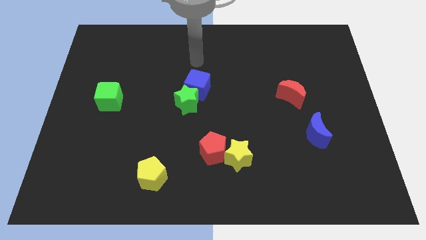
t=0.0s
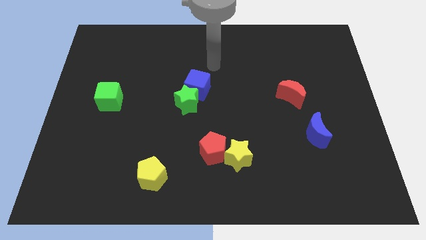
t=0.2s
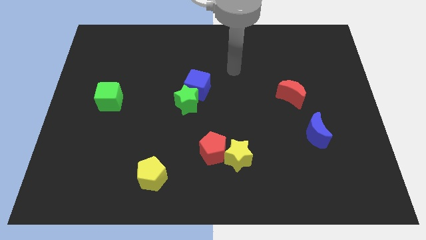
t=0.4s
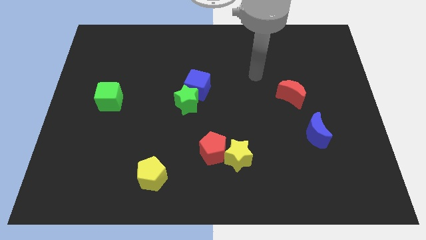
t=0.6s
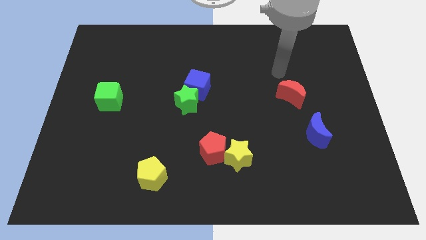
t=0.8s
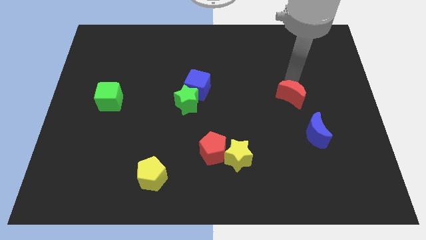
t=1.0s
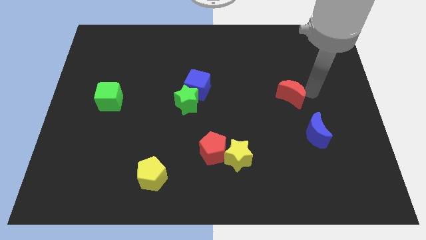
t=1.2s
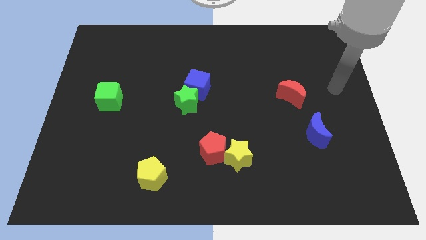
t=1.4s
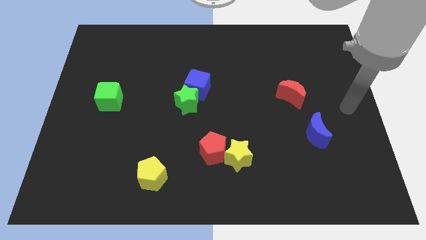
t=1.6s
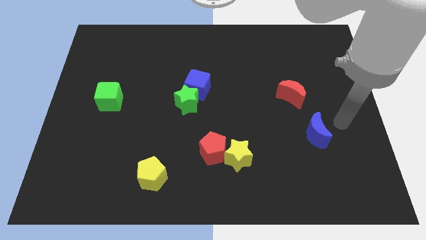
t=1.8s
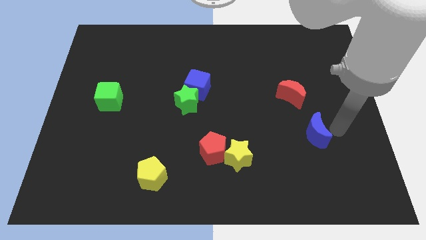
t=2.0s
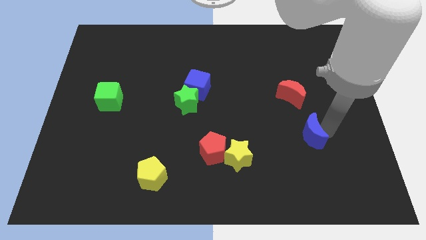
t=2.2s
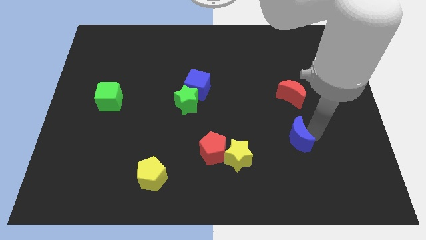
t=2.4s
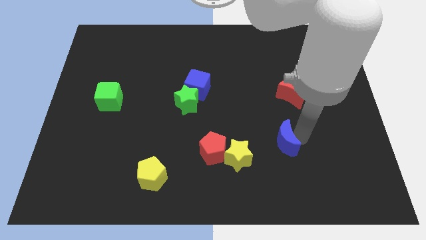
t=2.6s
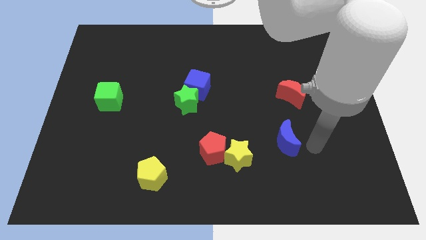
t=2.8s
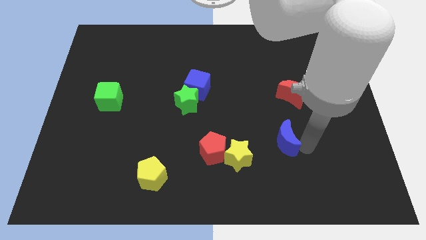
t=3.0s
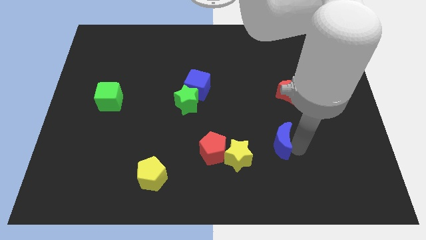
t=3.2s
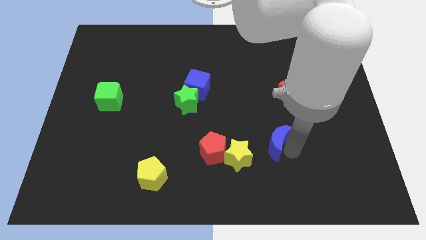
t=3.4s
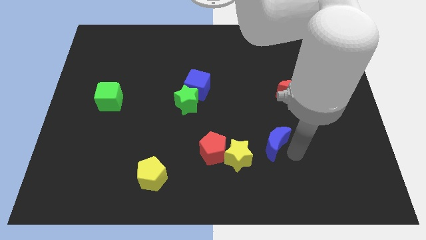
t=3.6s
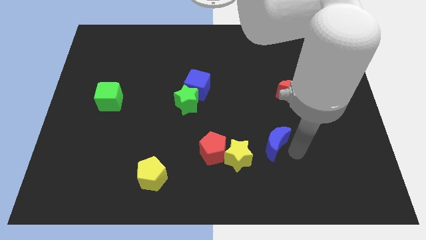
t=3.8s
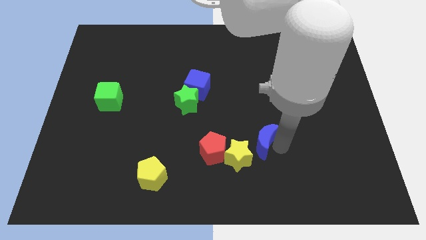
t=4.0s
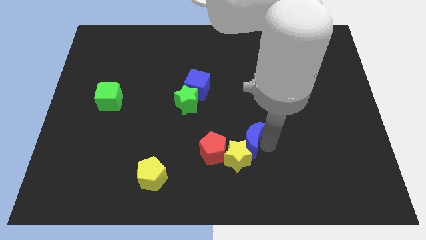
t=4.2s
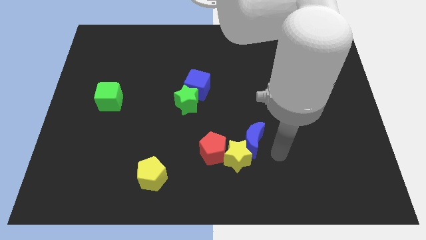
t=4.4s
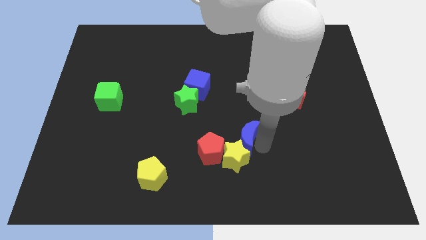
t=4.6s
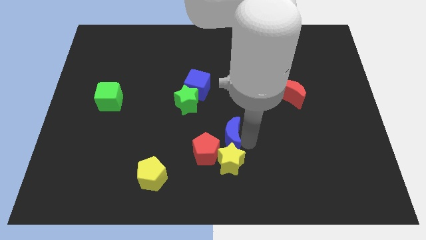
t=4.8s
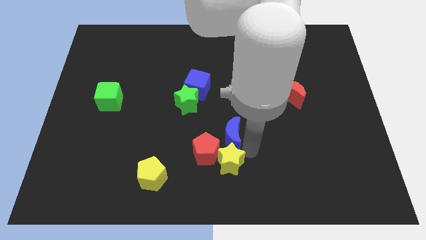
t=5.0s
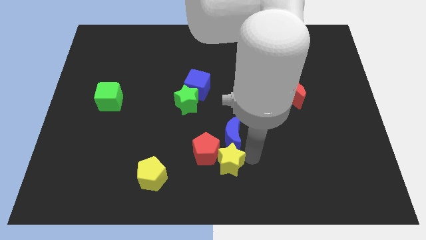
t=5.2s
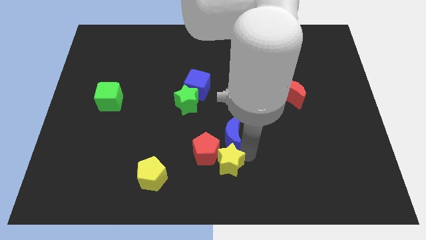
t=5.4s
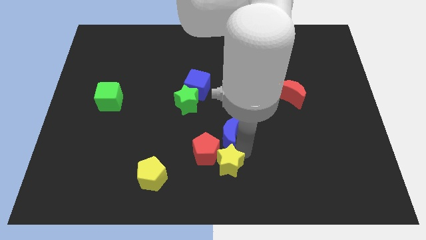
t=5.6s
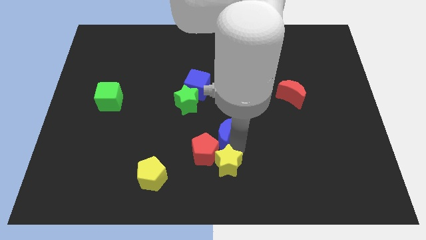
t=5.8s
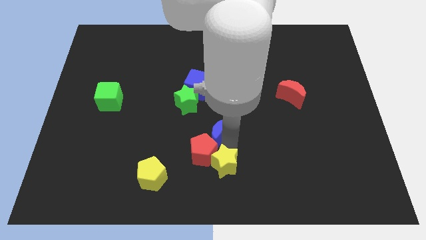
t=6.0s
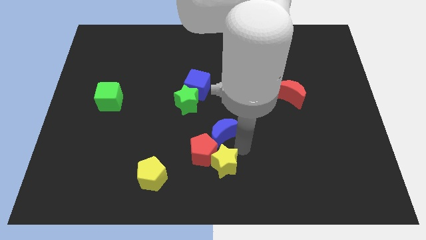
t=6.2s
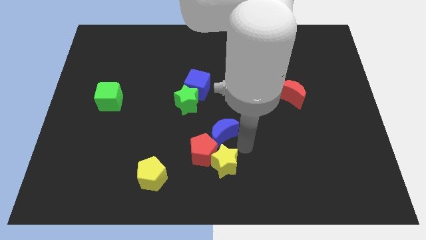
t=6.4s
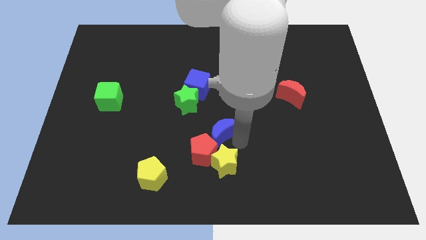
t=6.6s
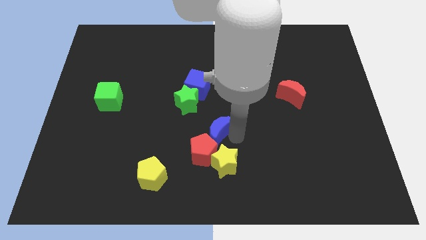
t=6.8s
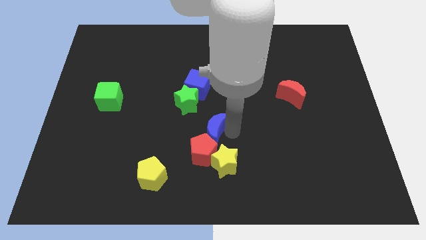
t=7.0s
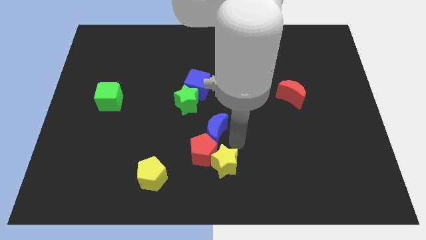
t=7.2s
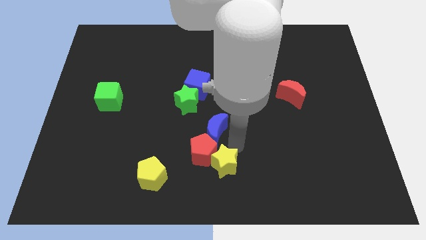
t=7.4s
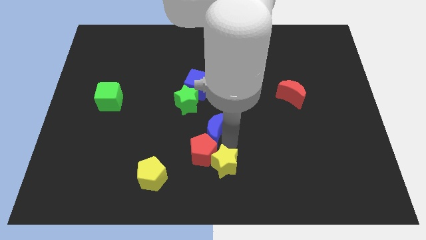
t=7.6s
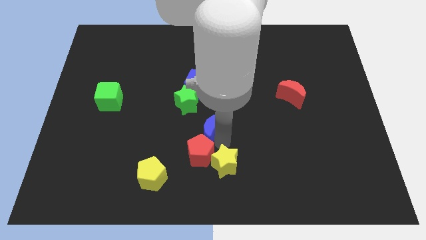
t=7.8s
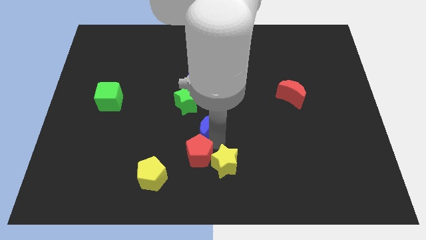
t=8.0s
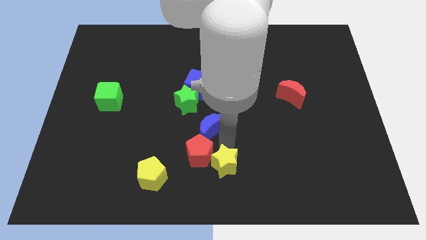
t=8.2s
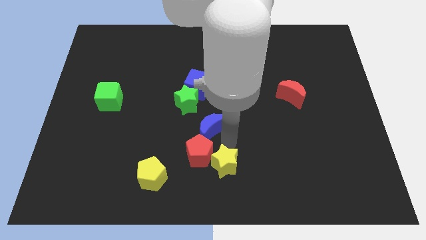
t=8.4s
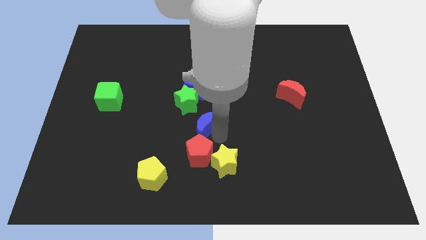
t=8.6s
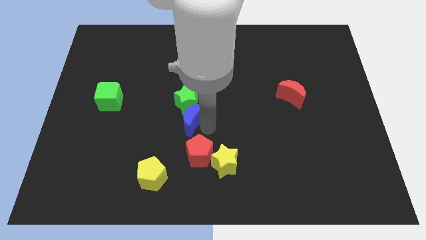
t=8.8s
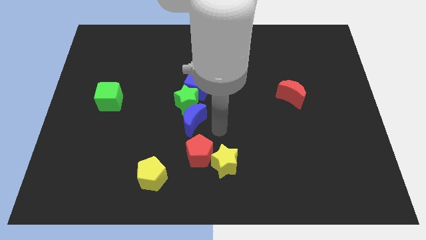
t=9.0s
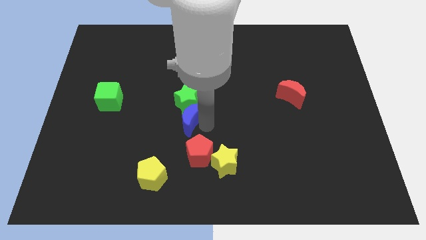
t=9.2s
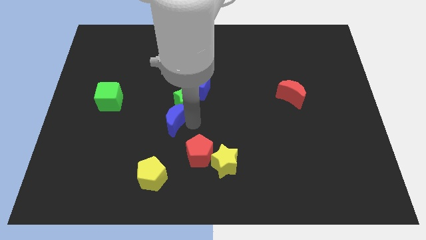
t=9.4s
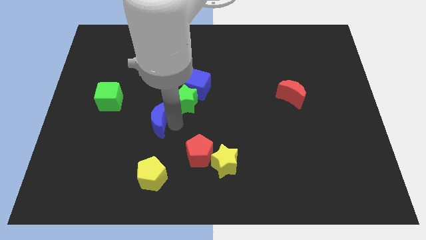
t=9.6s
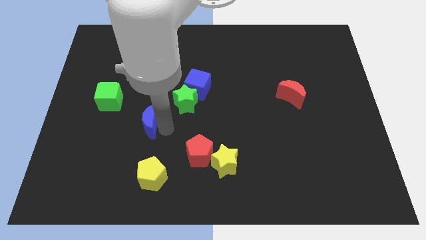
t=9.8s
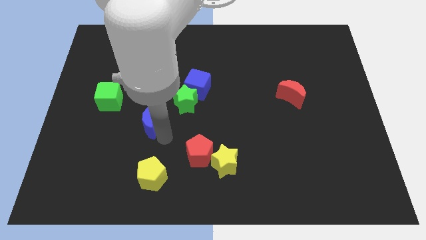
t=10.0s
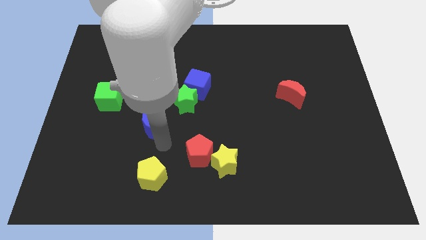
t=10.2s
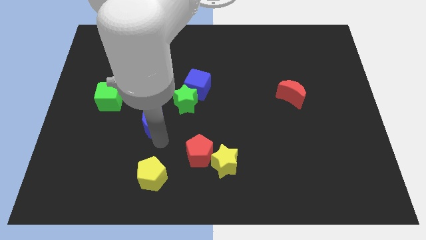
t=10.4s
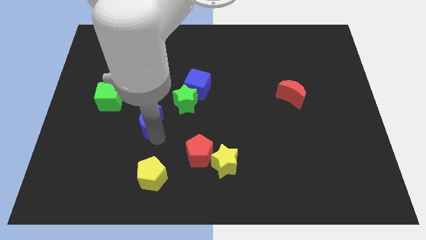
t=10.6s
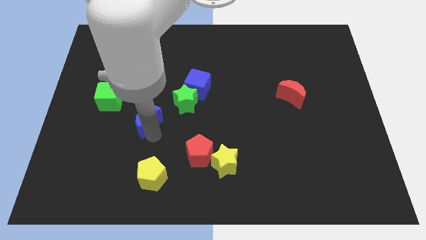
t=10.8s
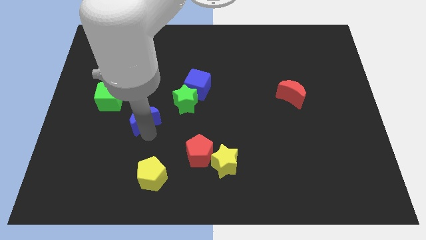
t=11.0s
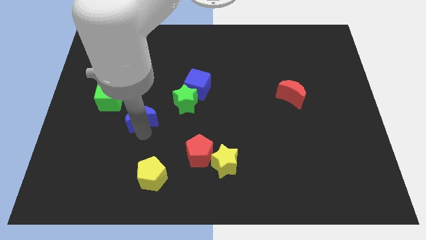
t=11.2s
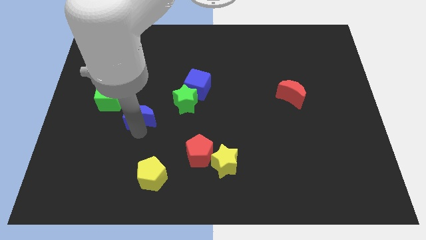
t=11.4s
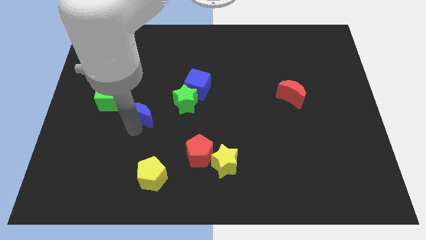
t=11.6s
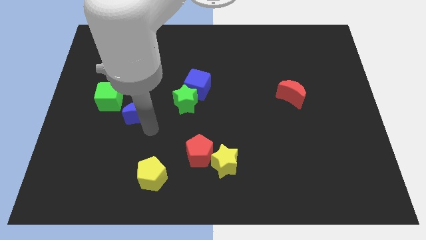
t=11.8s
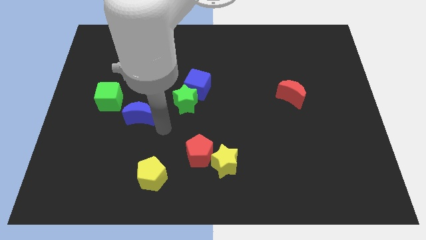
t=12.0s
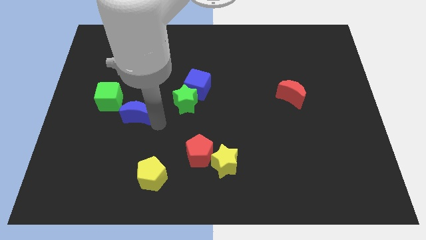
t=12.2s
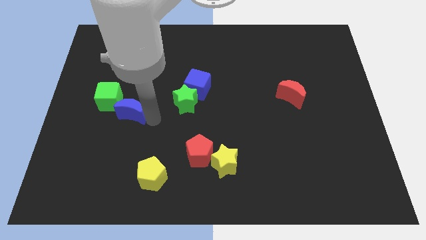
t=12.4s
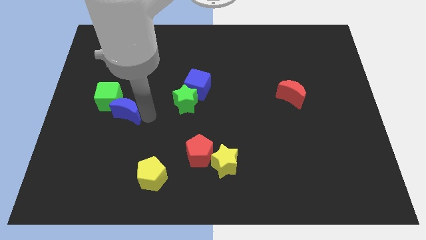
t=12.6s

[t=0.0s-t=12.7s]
push the blue moon to the green cube

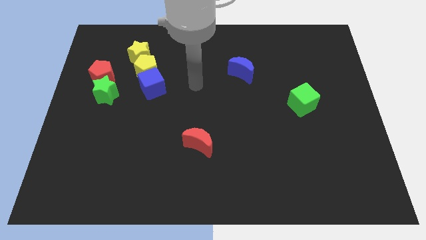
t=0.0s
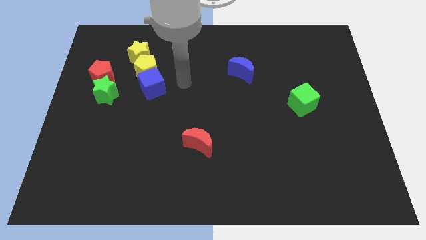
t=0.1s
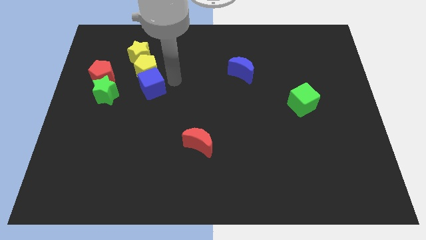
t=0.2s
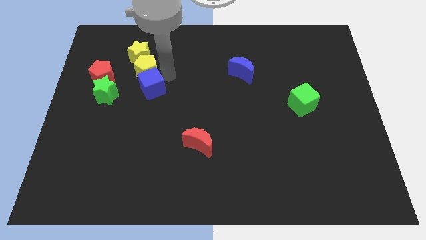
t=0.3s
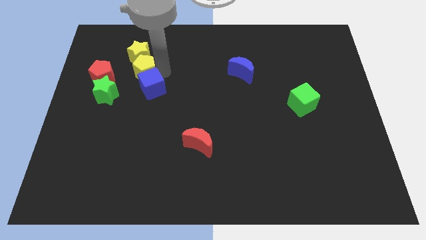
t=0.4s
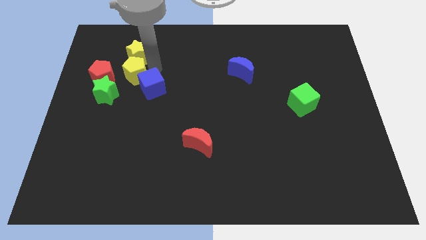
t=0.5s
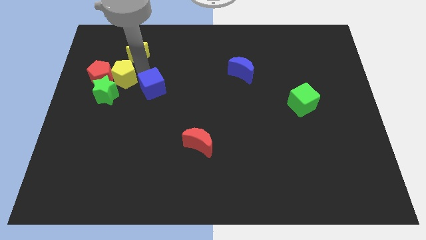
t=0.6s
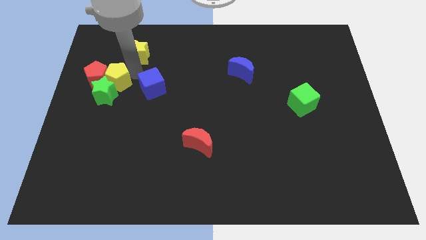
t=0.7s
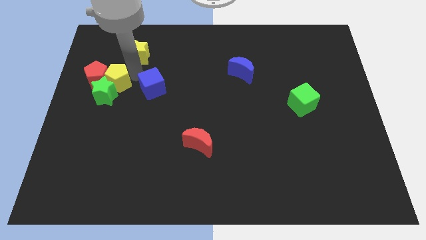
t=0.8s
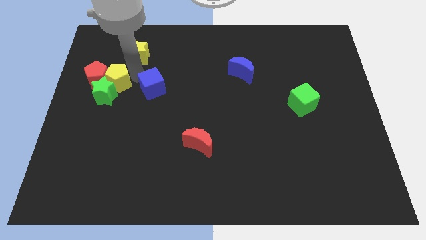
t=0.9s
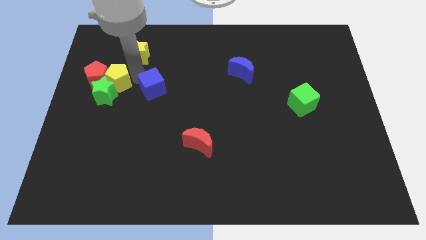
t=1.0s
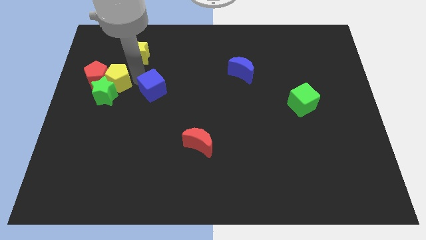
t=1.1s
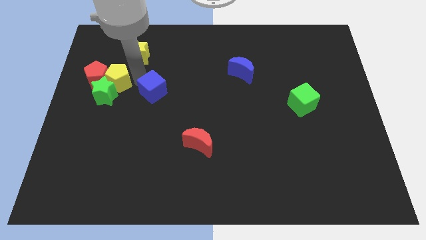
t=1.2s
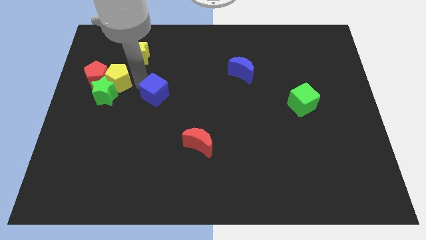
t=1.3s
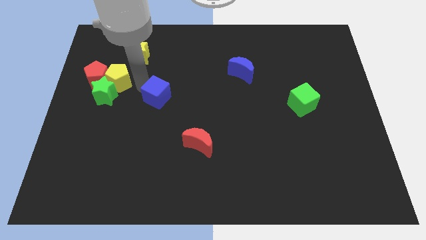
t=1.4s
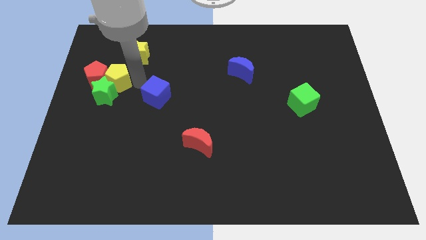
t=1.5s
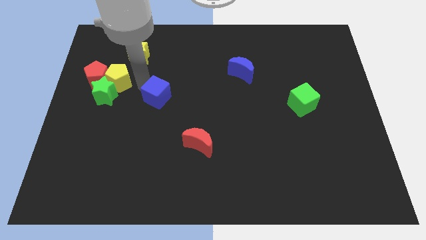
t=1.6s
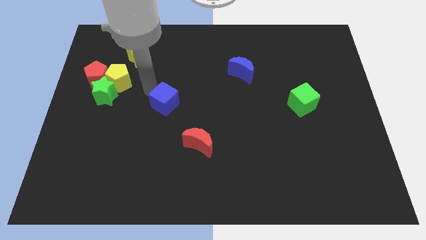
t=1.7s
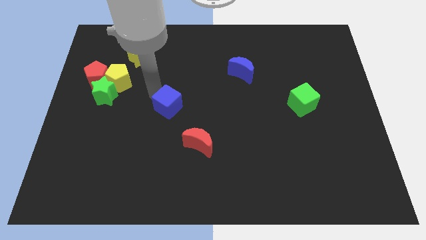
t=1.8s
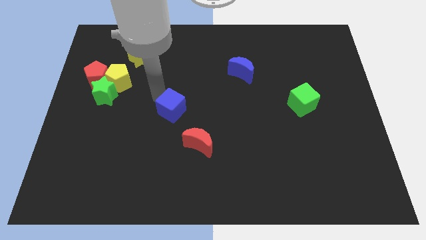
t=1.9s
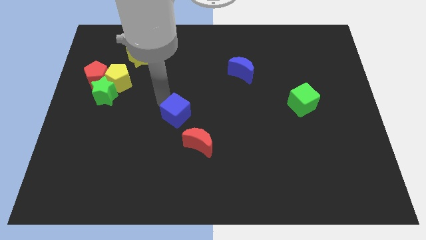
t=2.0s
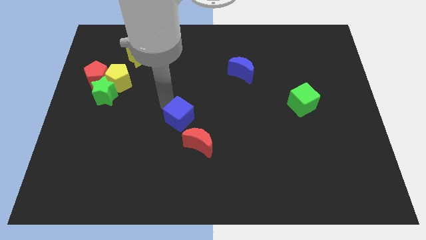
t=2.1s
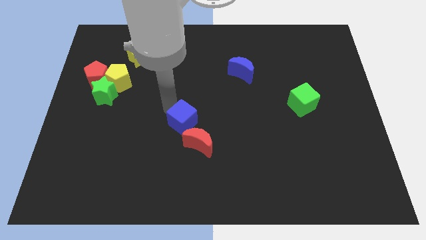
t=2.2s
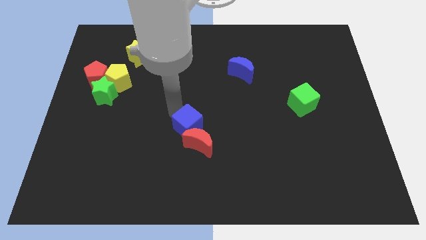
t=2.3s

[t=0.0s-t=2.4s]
put the blue cube next to the red moon
